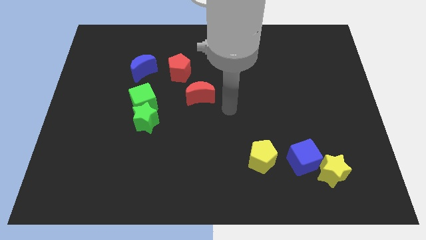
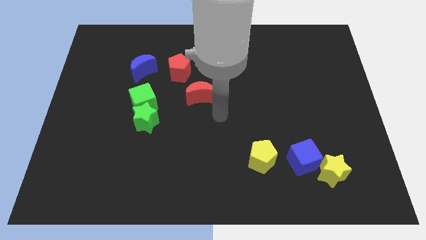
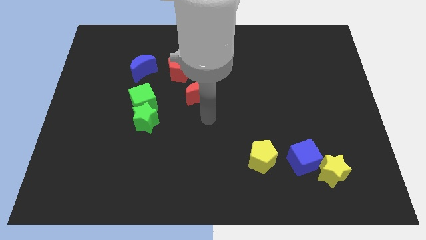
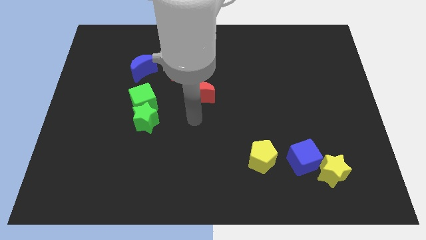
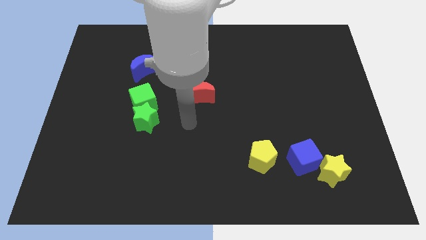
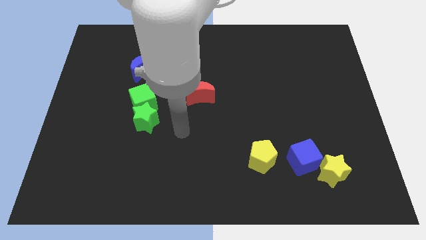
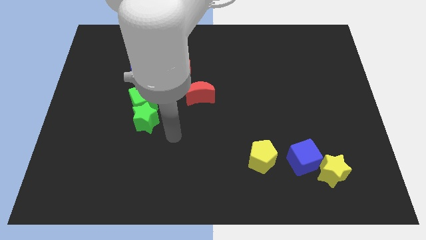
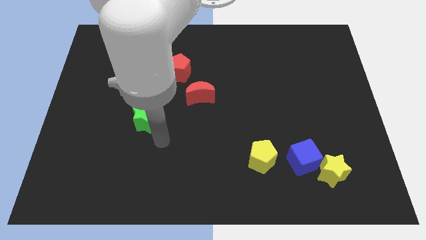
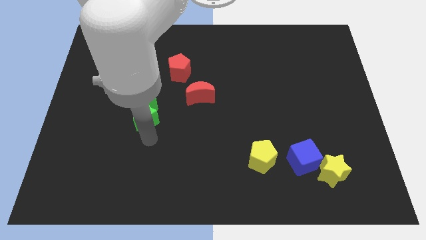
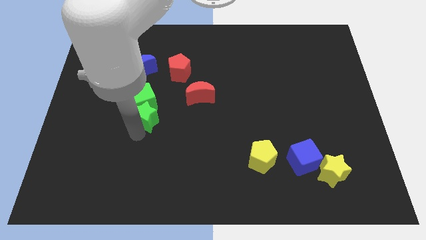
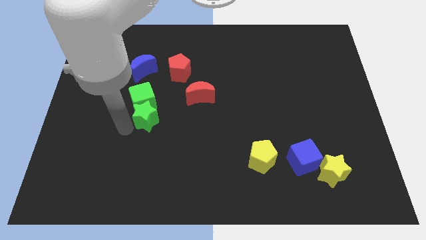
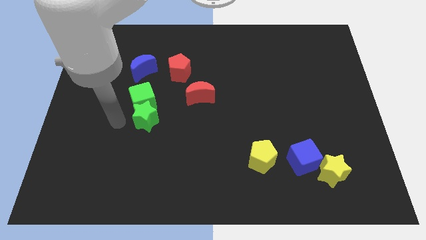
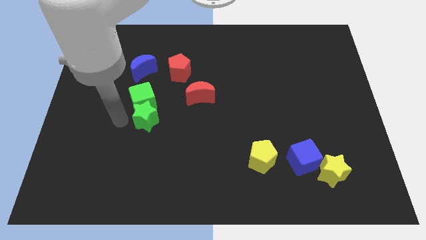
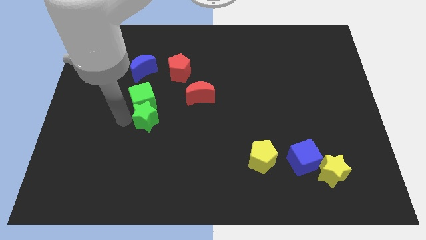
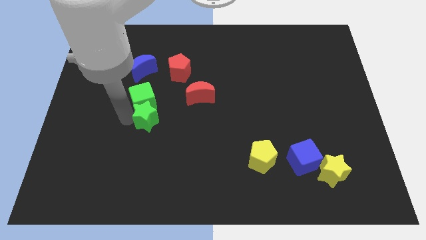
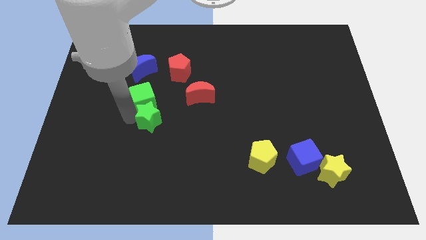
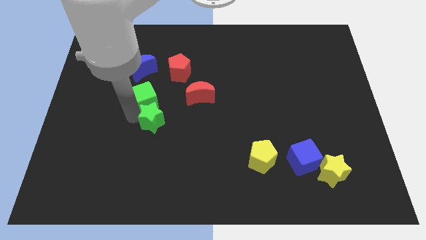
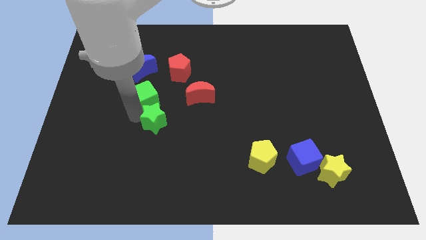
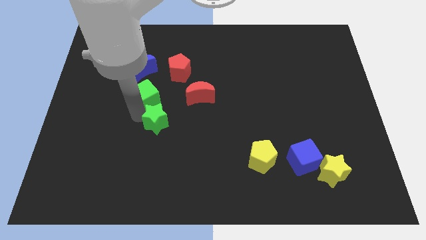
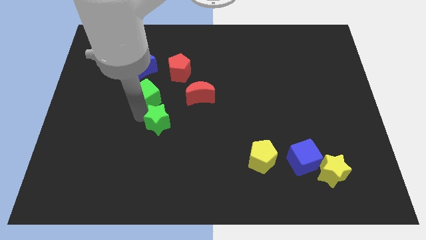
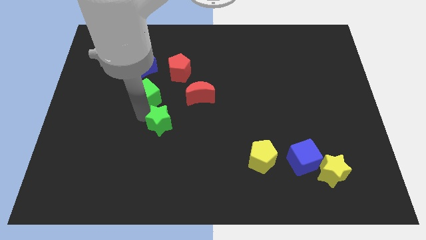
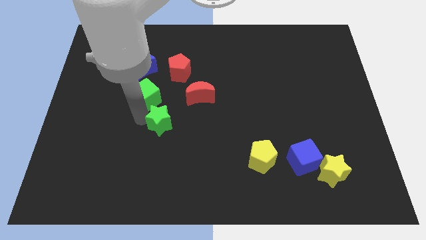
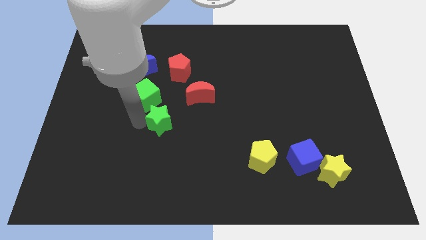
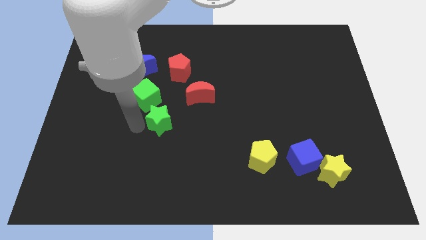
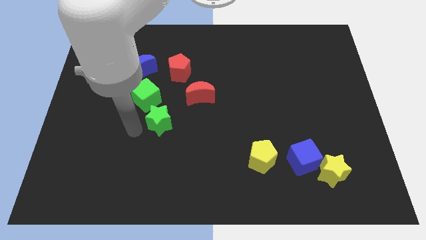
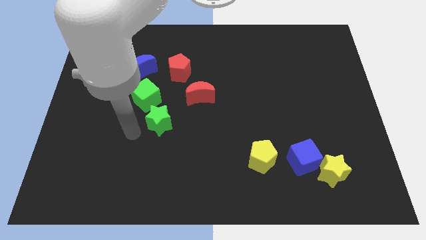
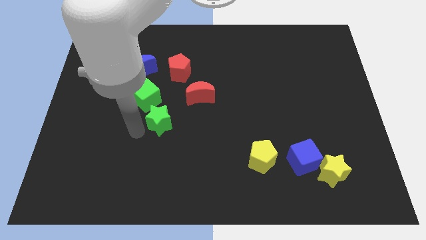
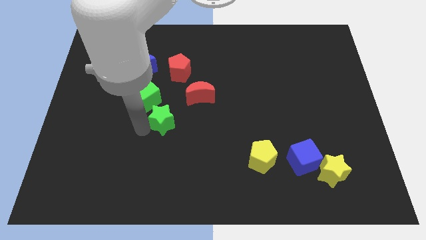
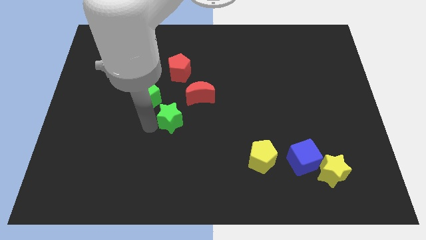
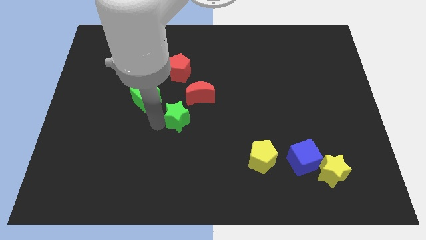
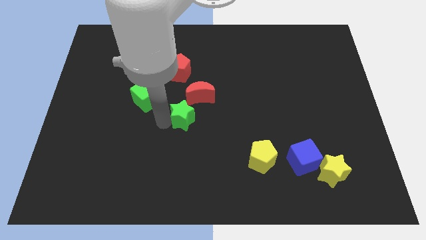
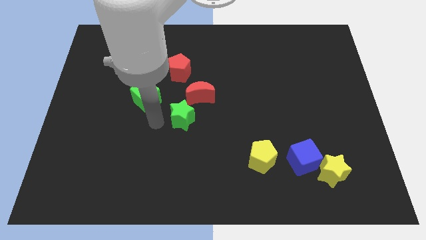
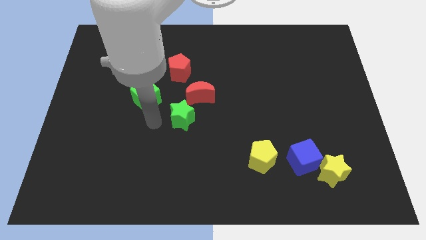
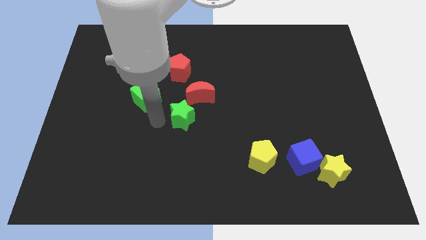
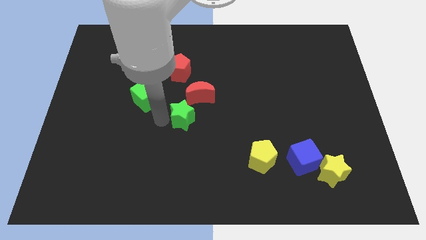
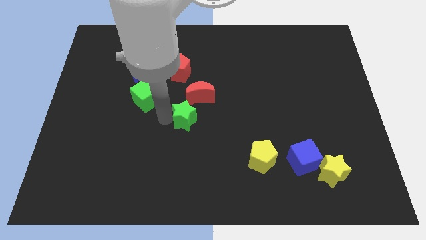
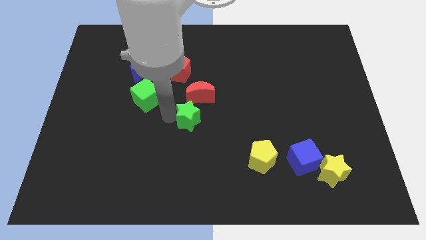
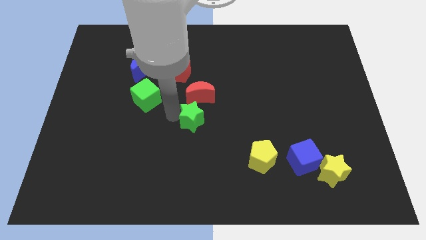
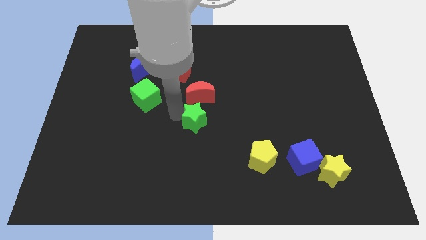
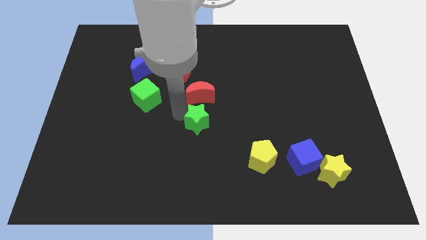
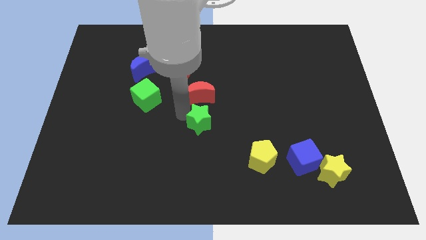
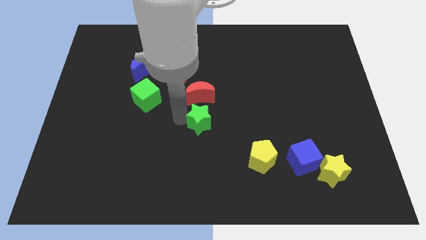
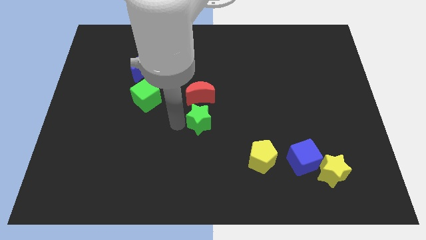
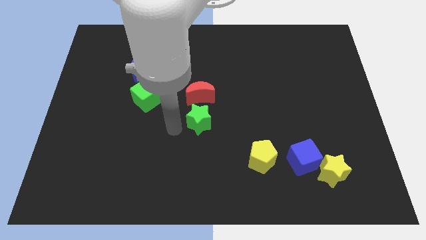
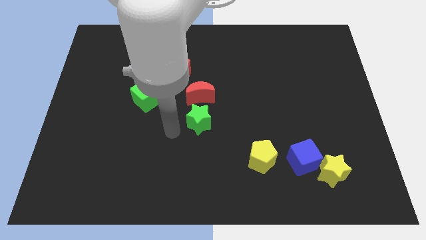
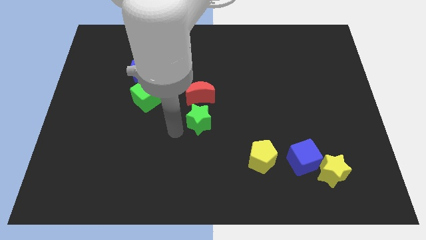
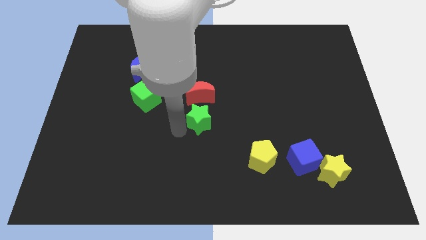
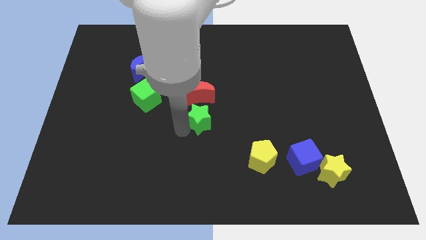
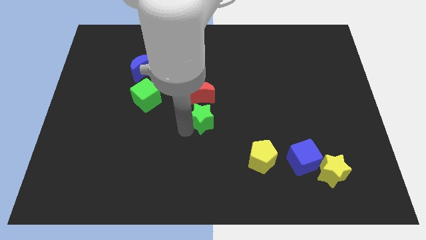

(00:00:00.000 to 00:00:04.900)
put the green star to the bottom right of the red moon

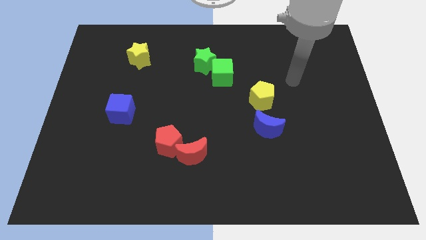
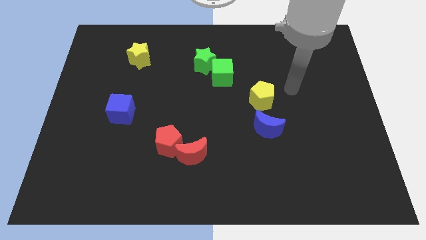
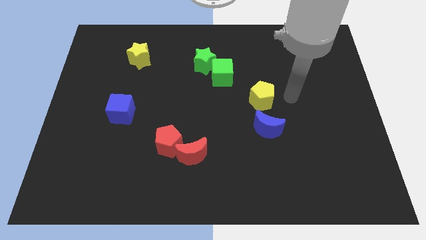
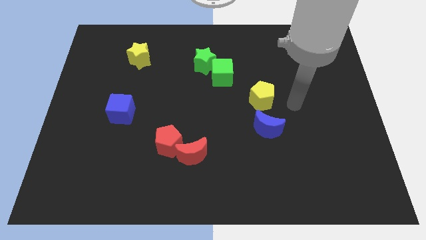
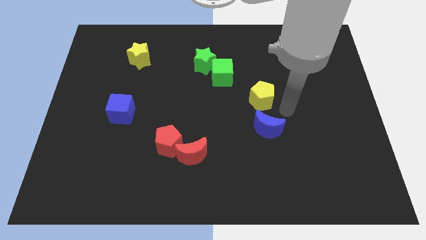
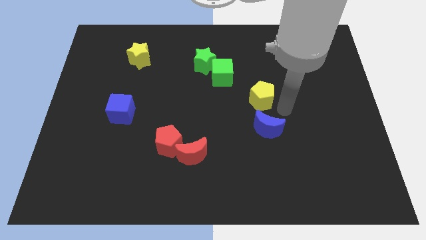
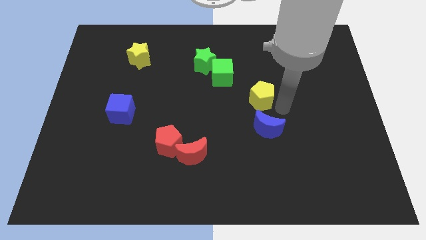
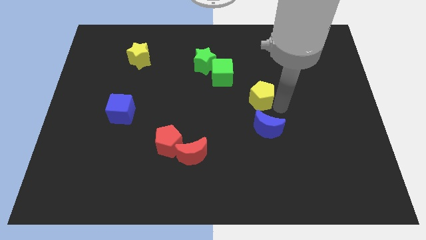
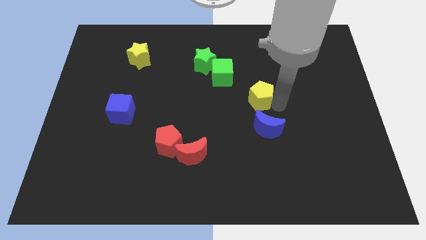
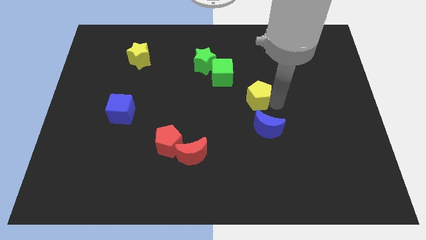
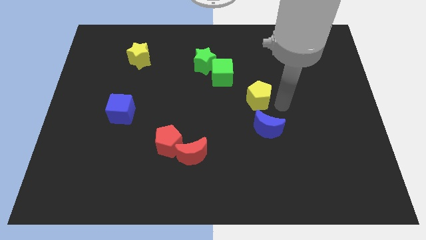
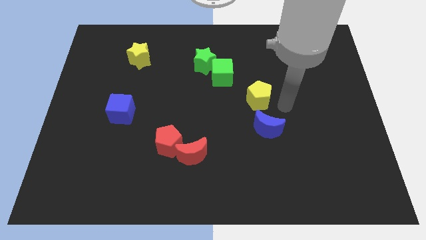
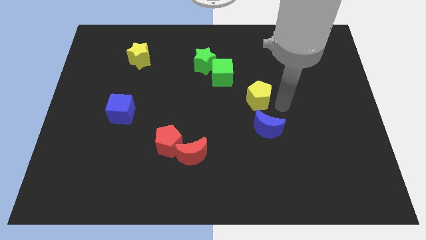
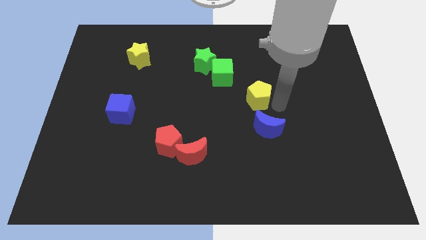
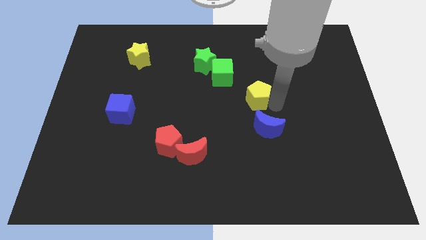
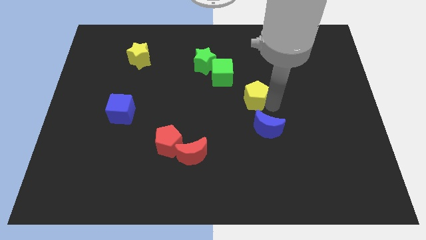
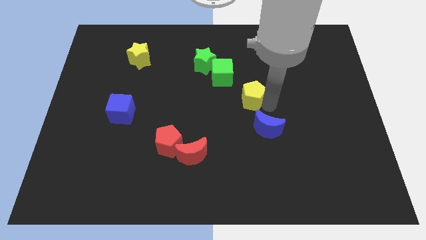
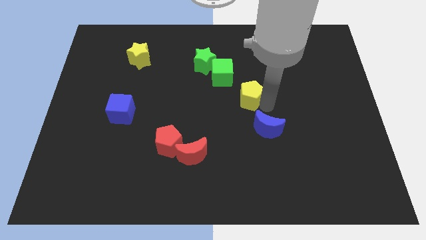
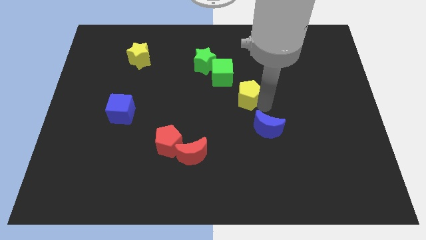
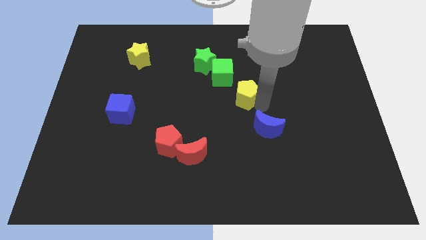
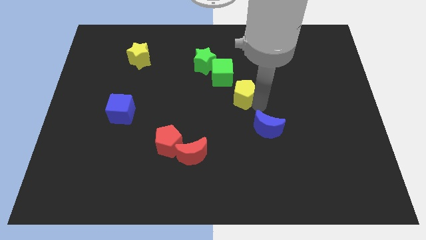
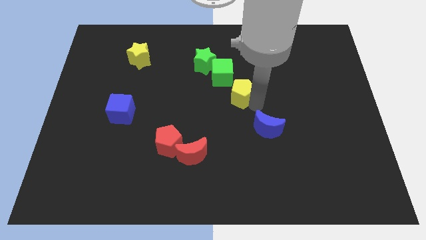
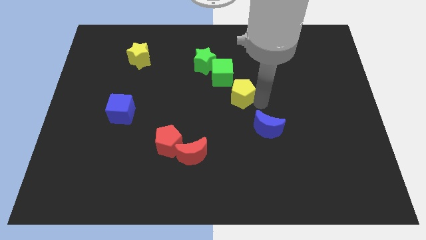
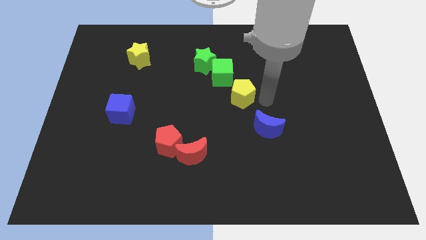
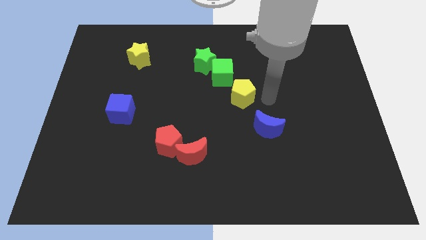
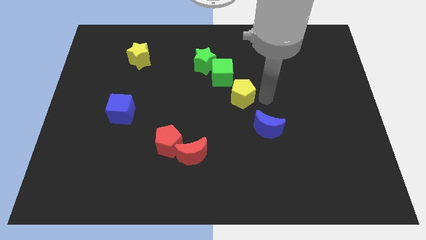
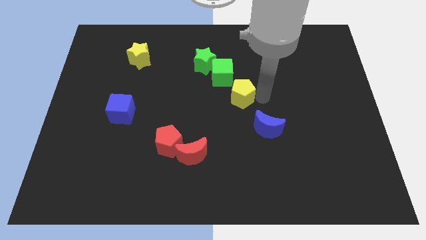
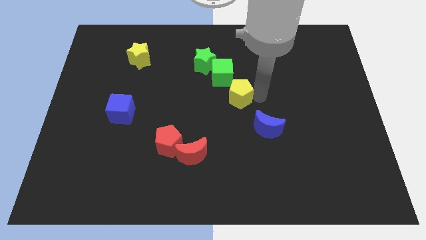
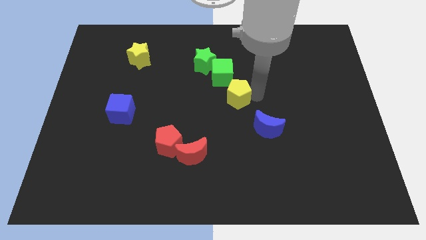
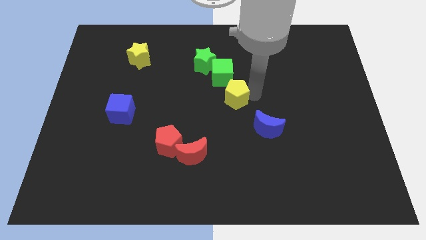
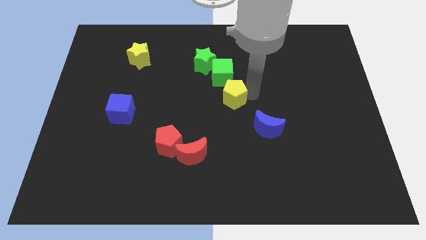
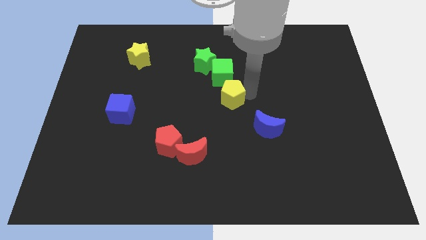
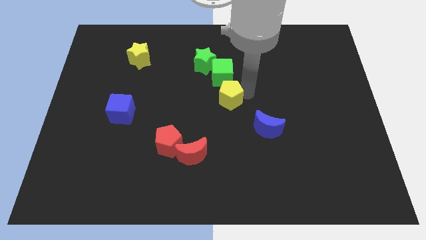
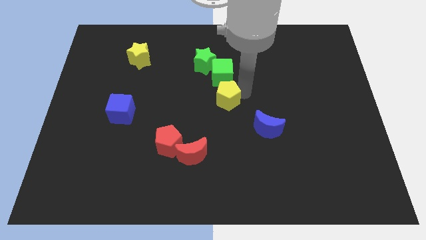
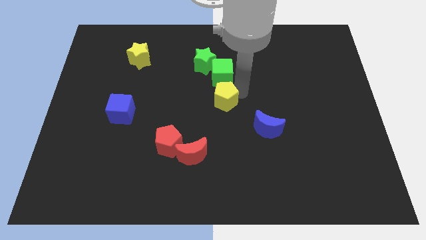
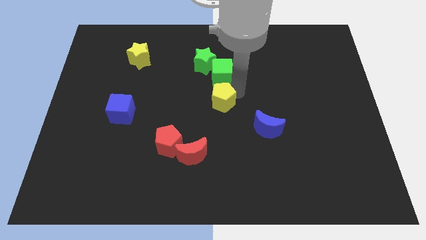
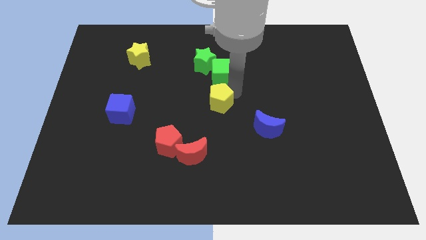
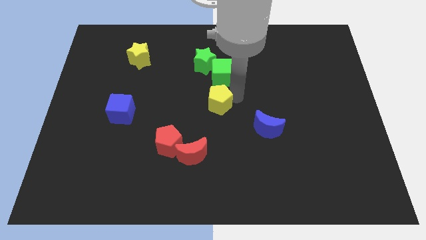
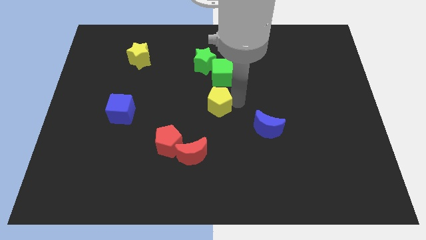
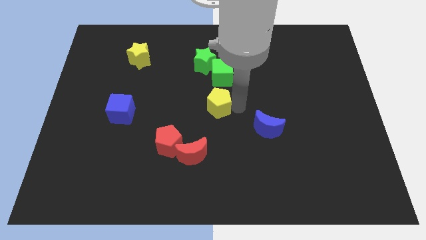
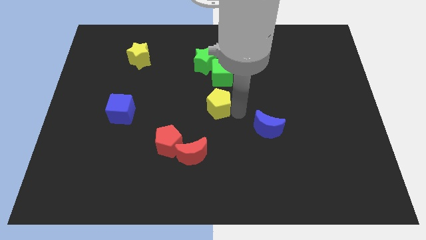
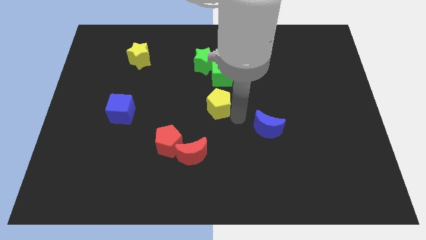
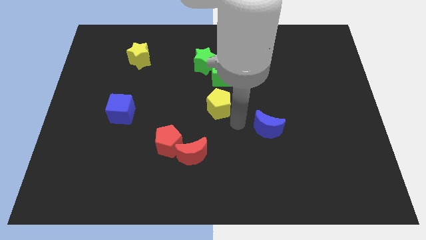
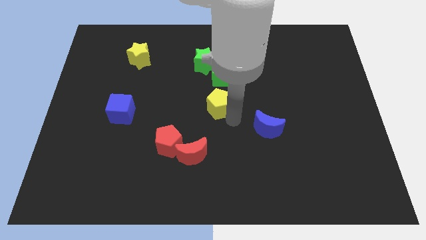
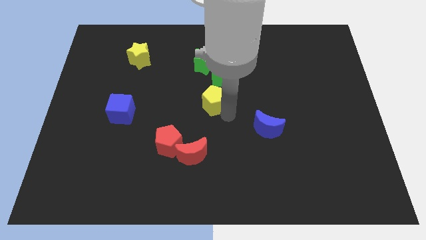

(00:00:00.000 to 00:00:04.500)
move the yellow pentagon to the bottom left side of the green cube
